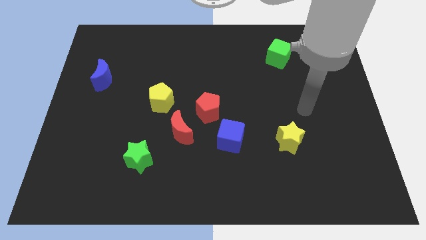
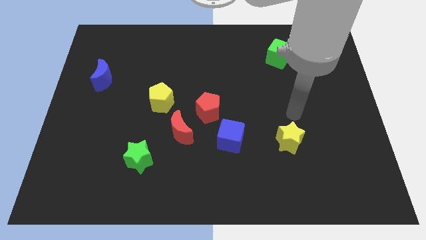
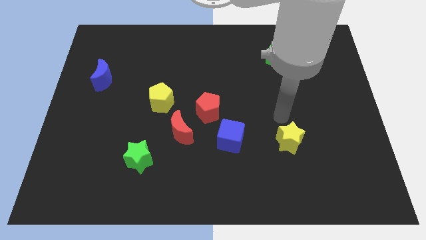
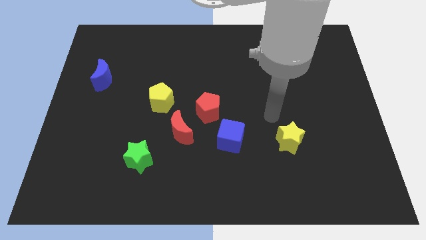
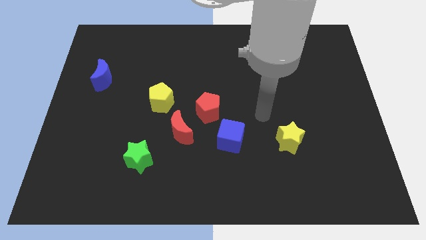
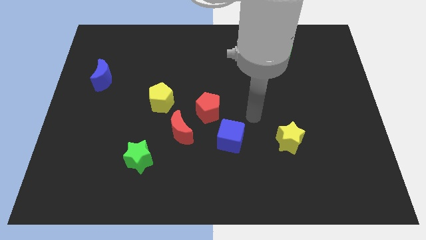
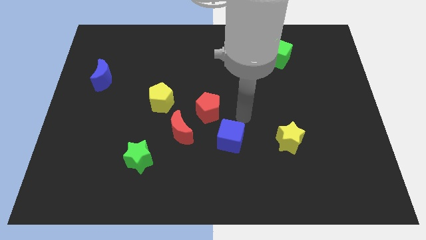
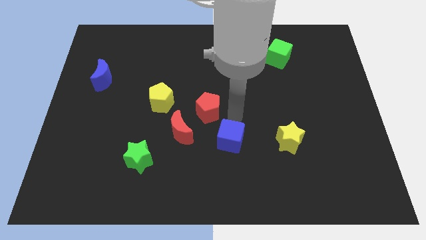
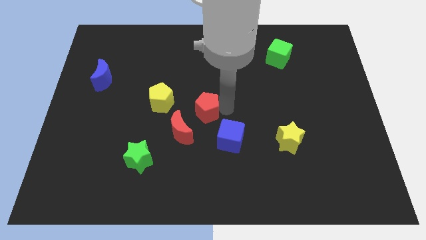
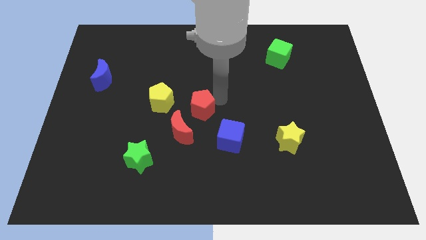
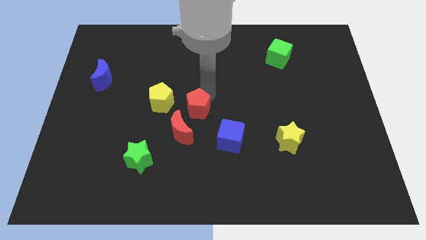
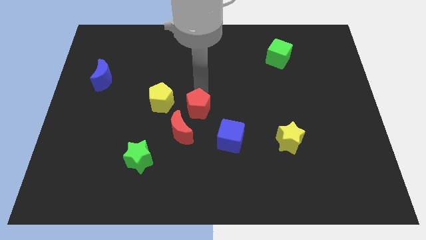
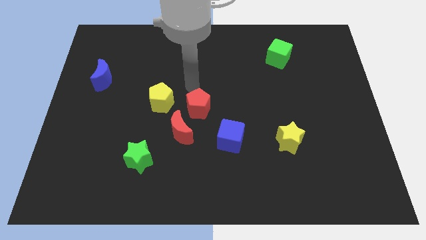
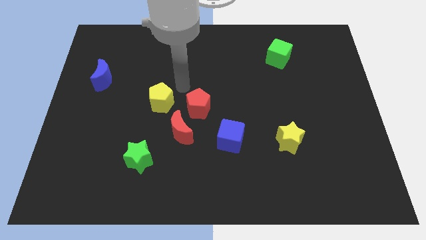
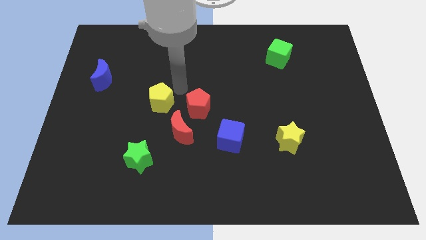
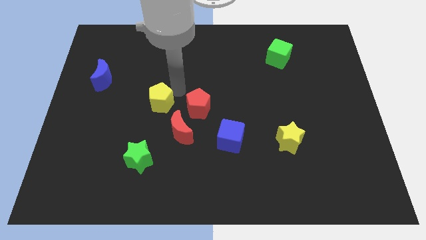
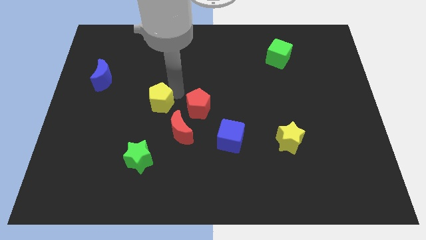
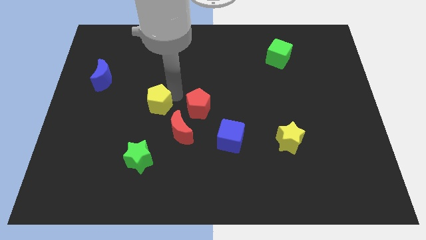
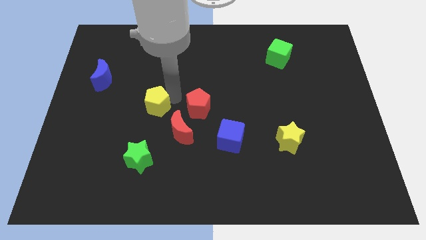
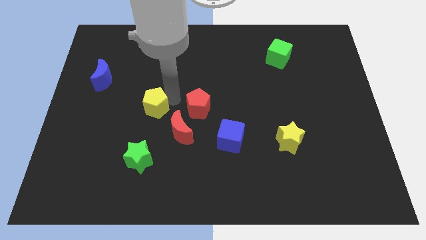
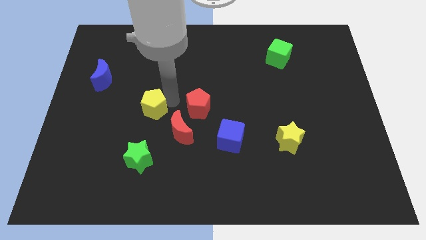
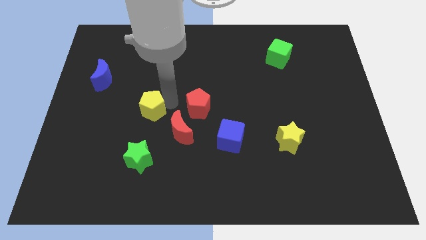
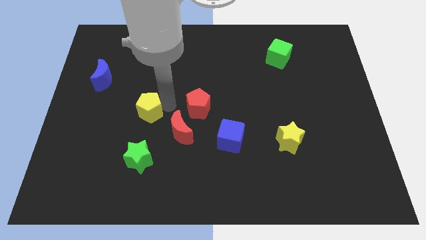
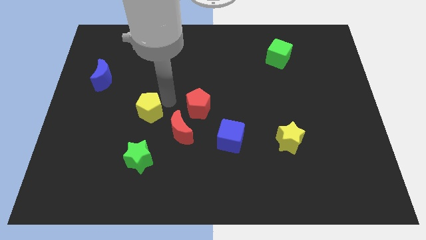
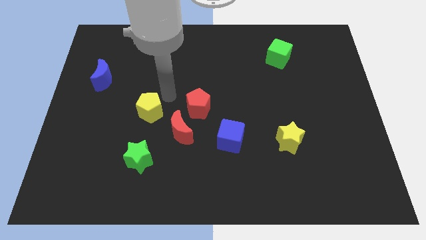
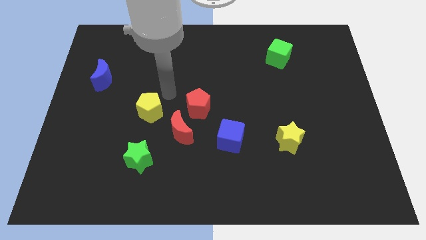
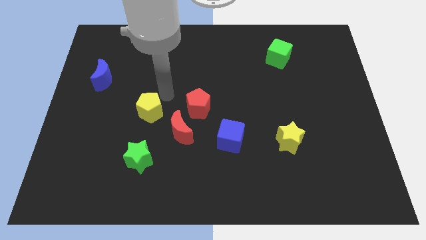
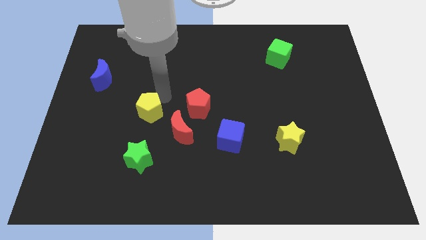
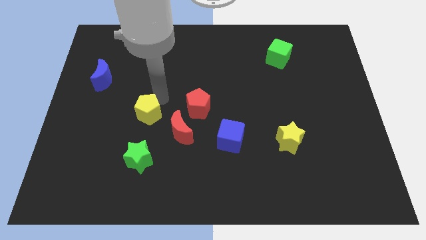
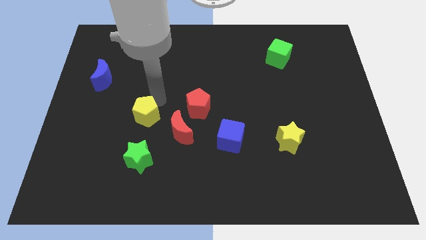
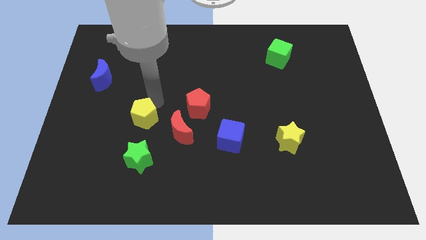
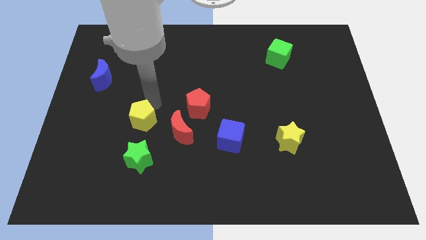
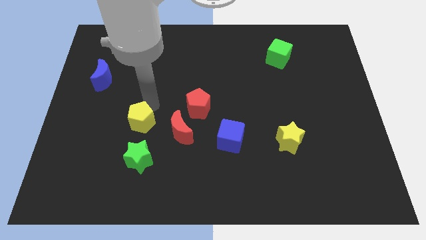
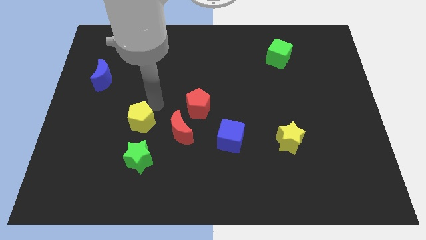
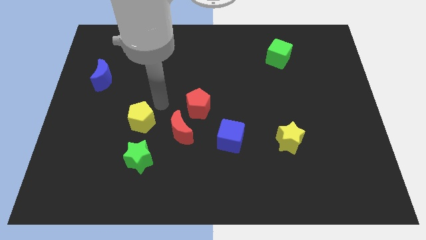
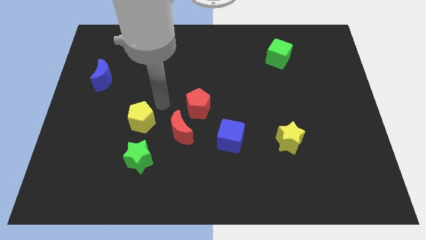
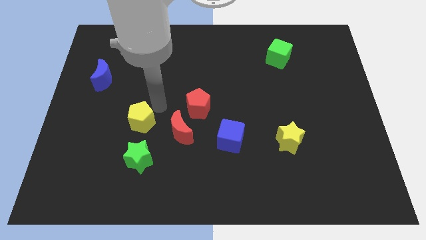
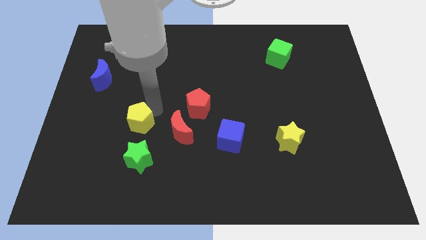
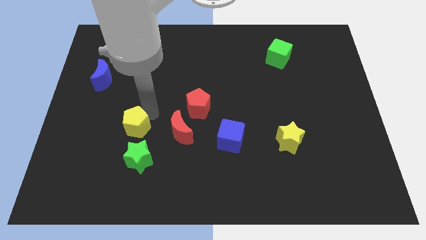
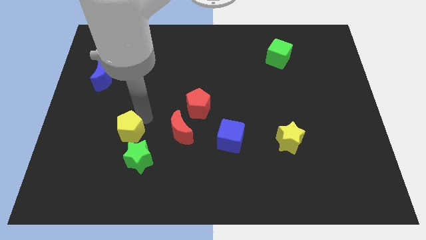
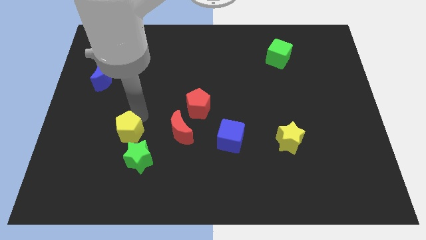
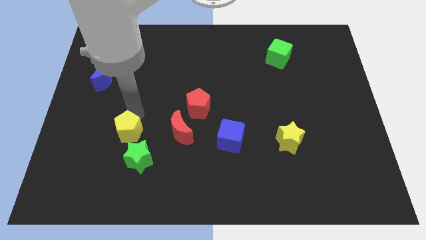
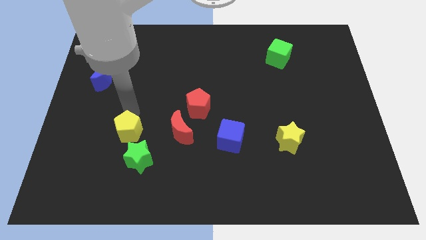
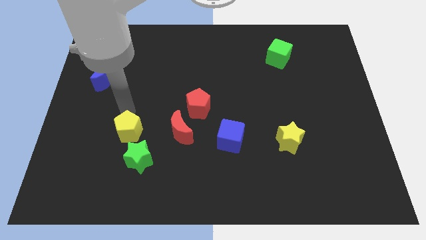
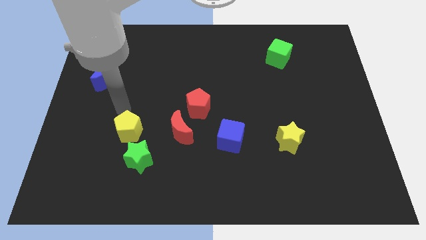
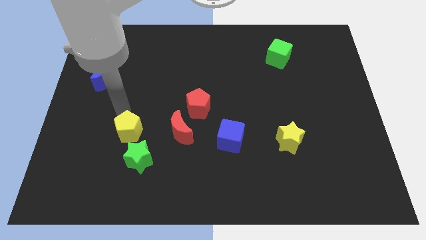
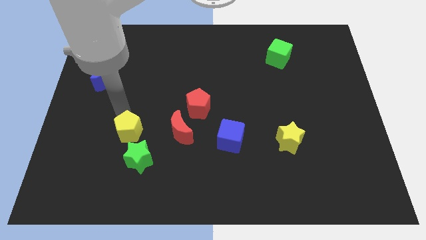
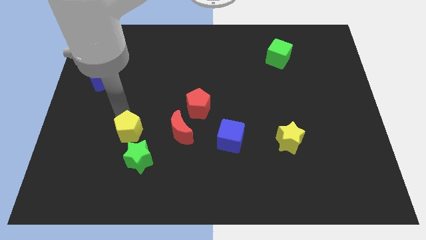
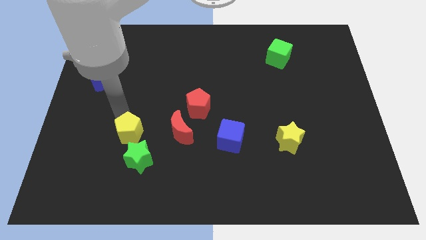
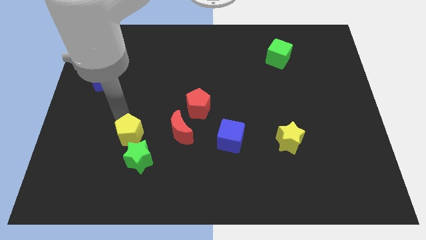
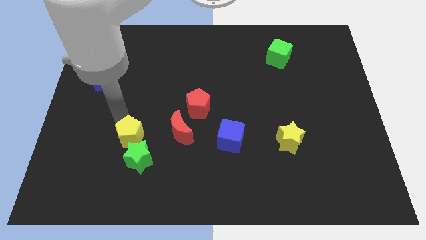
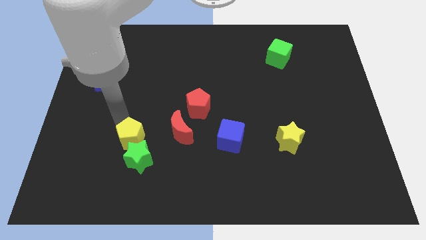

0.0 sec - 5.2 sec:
move the yellow pentagon next to the green star
